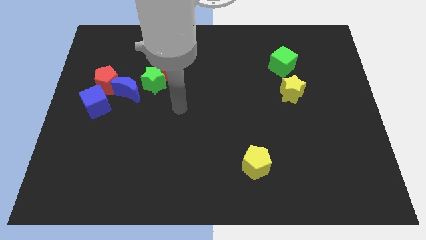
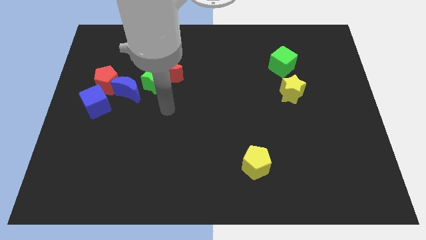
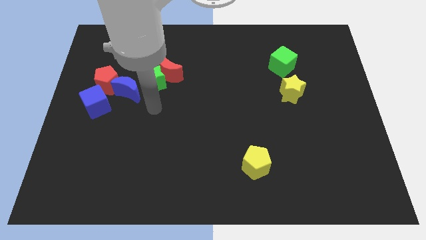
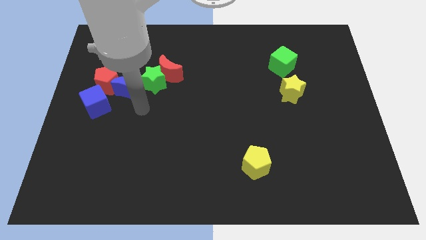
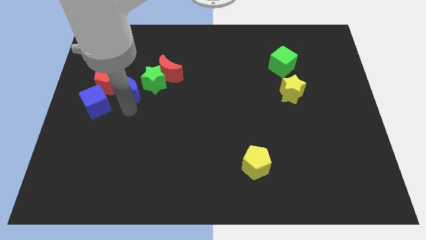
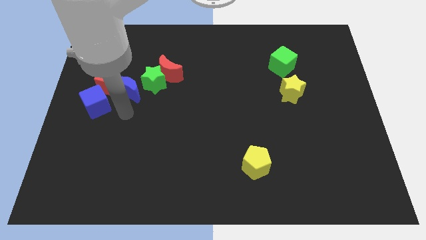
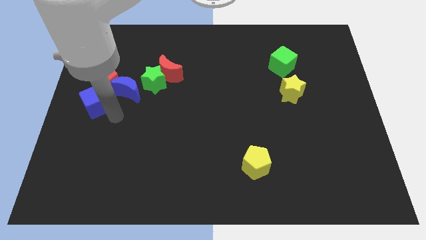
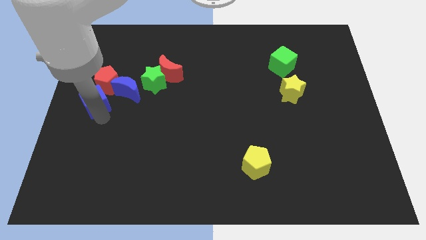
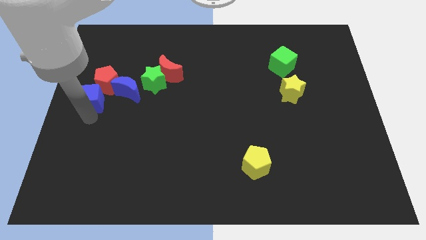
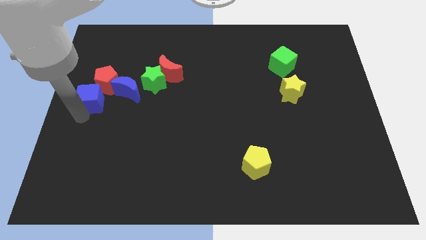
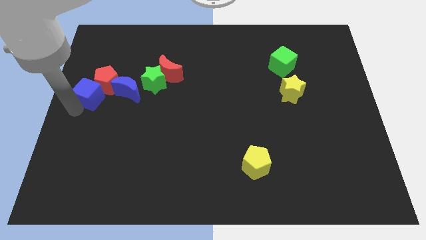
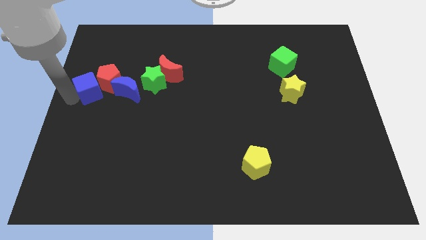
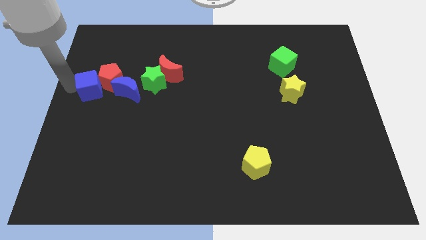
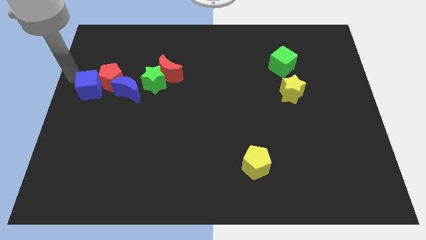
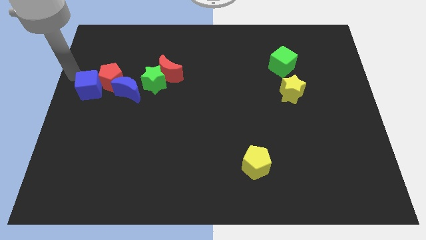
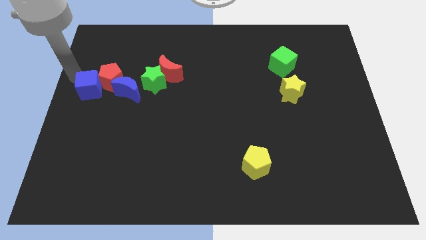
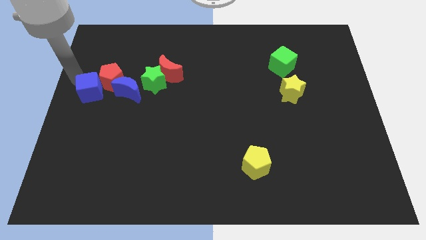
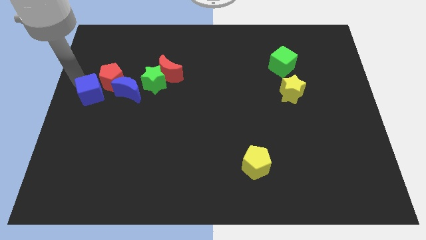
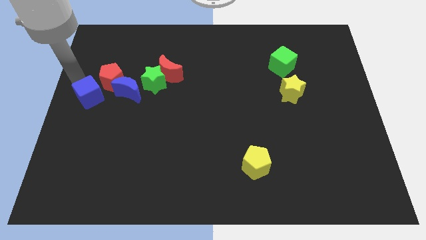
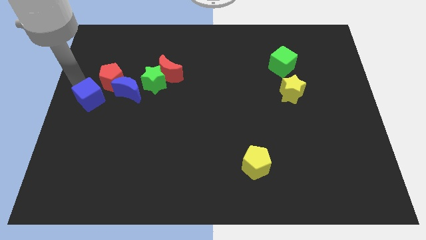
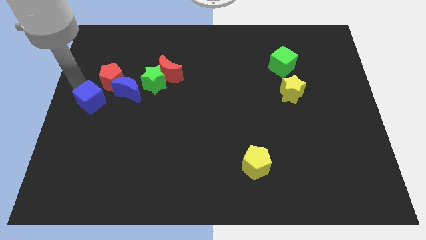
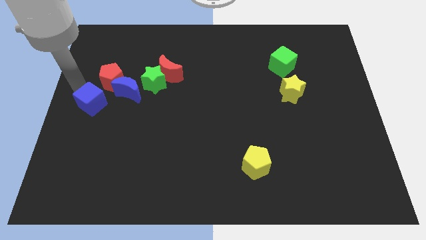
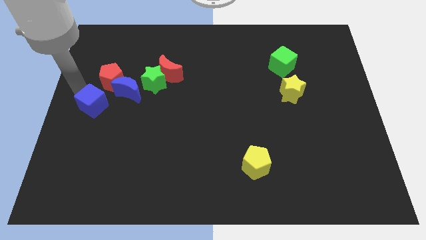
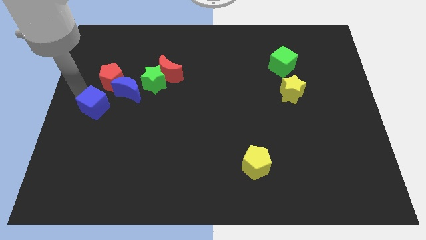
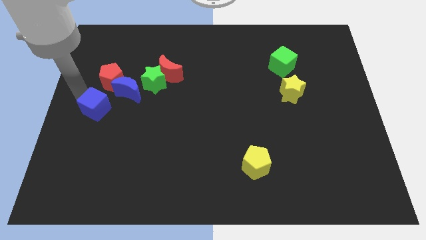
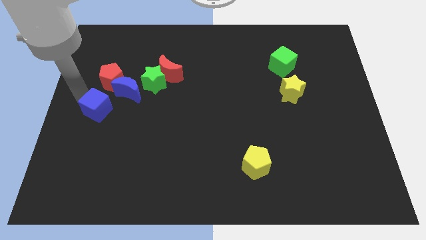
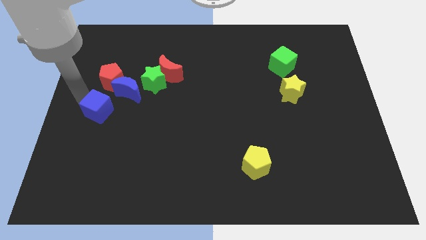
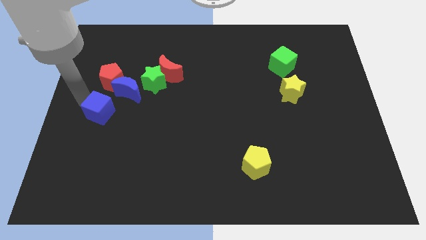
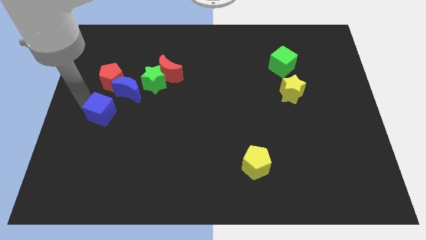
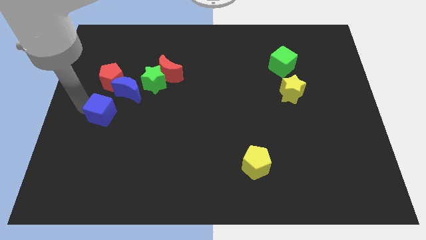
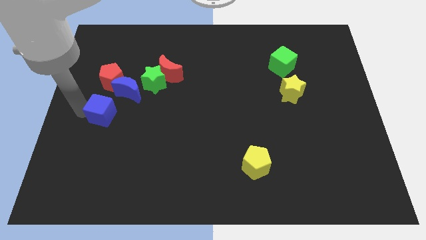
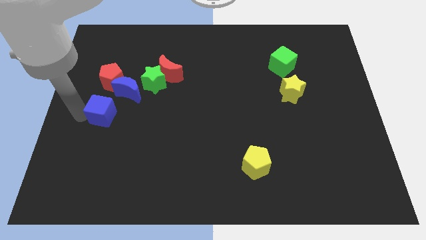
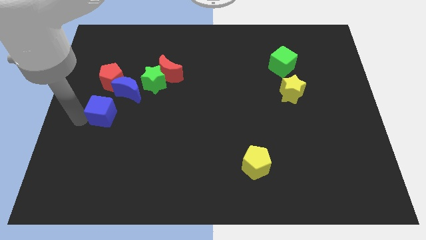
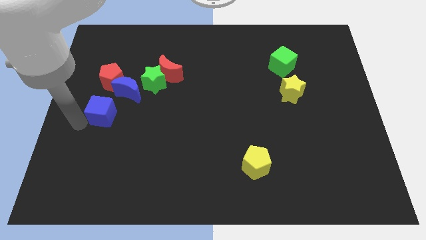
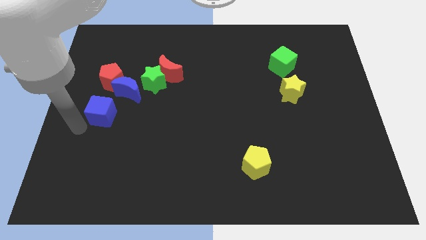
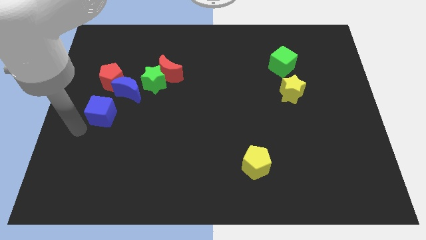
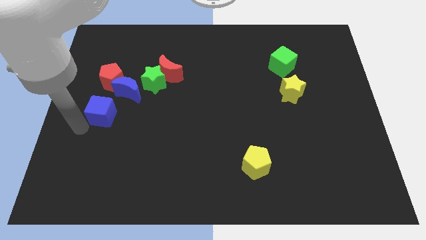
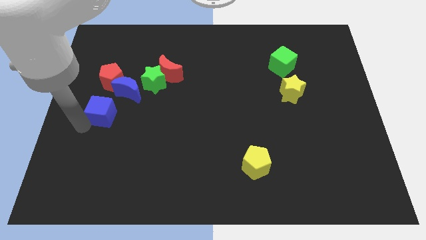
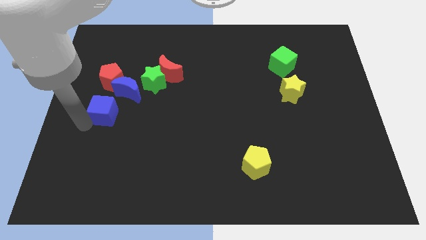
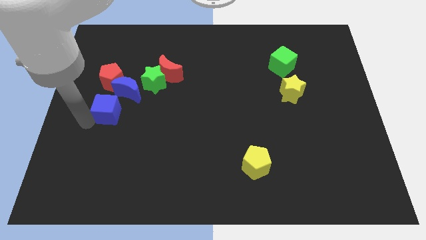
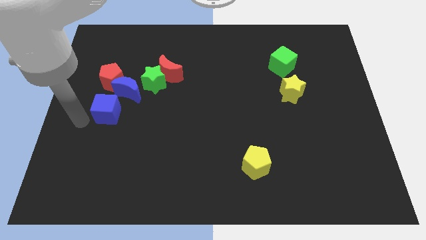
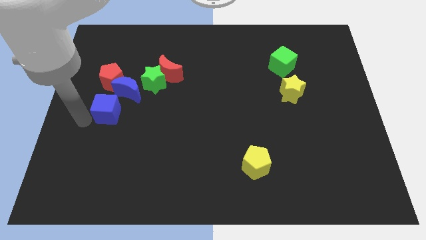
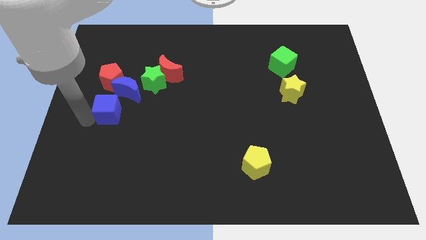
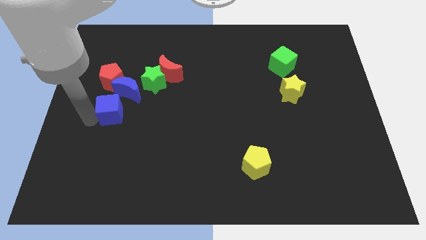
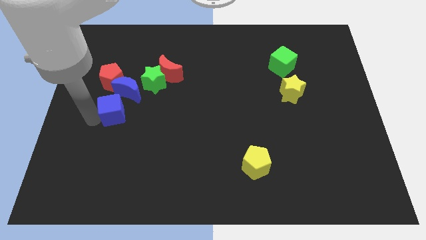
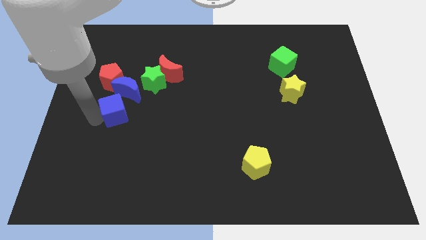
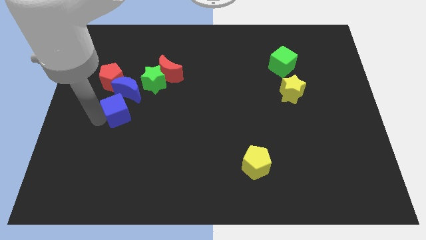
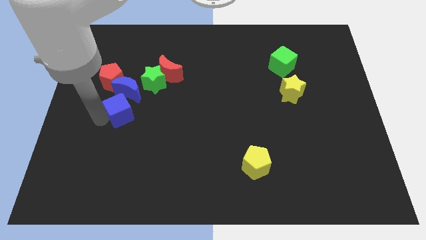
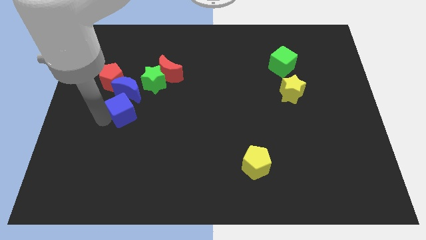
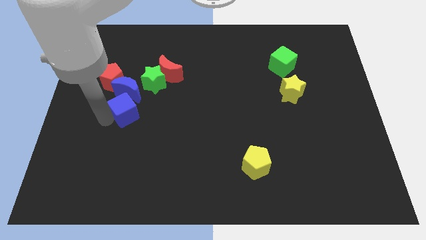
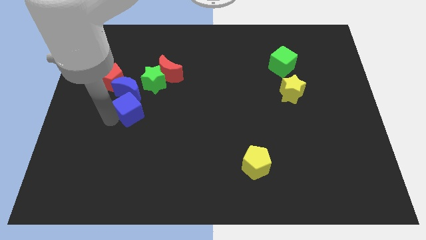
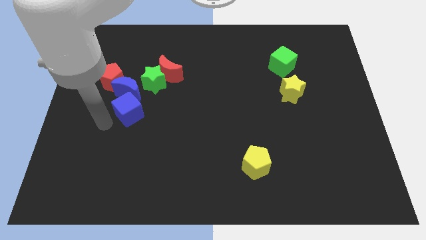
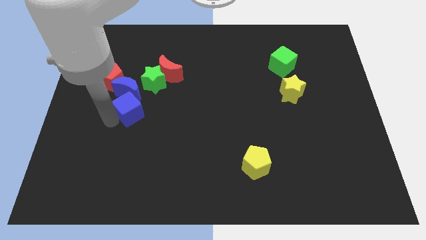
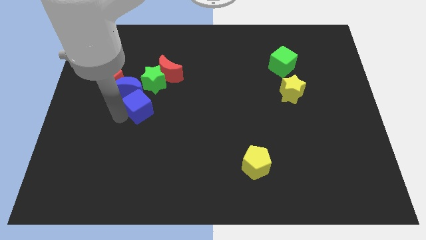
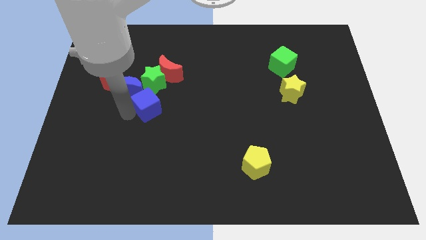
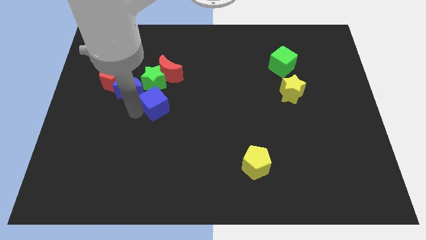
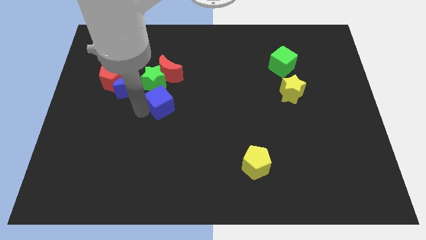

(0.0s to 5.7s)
push the blue cube to the middle

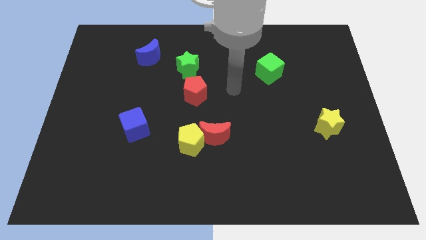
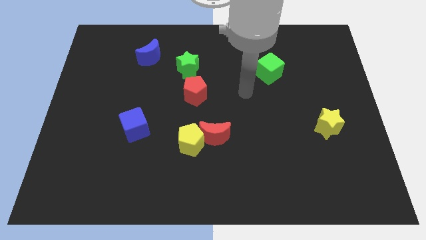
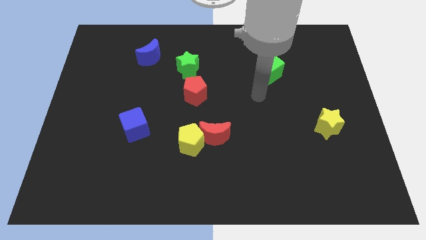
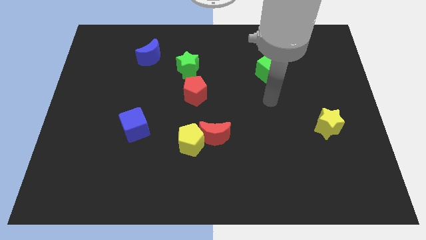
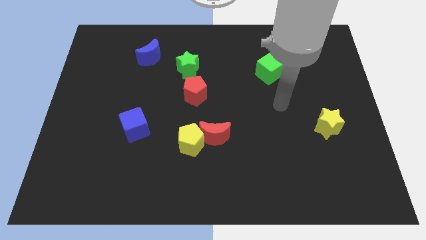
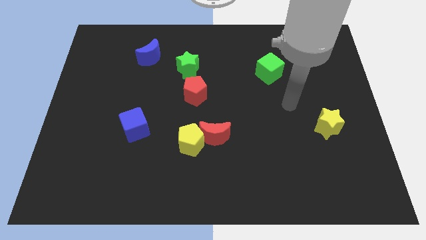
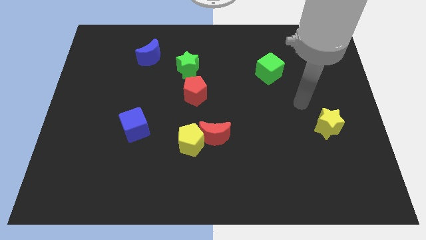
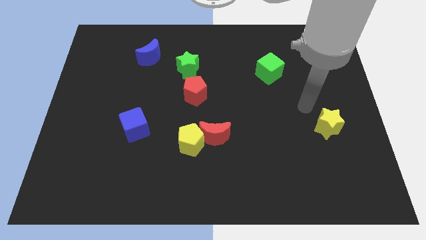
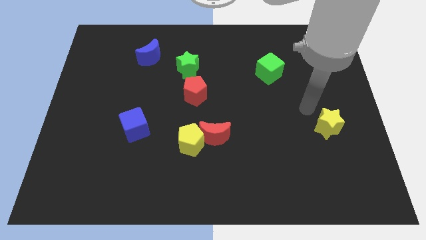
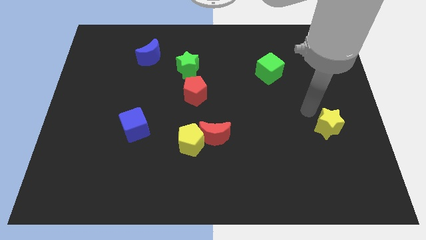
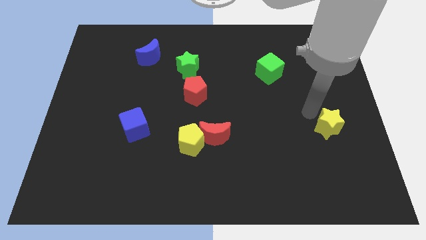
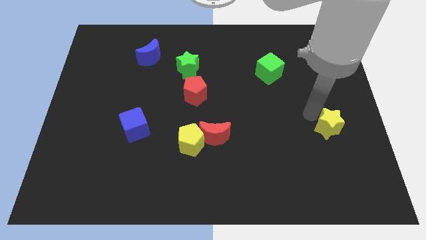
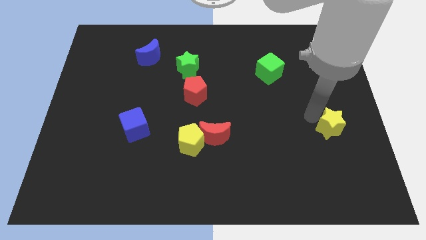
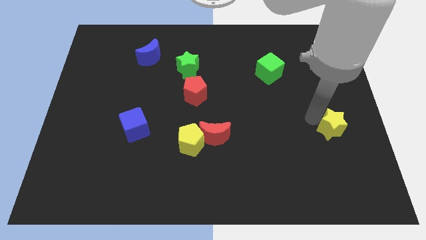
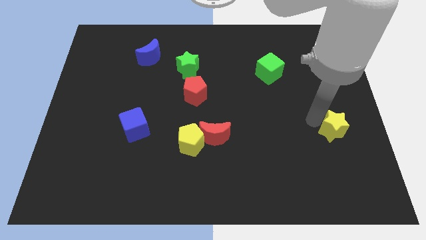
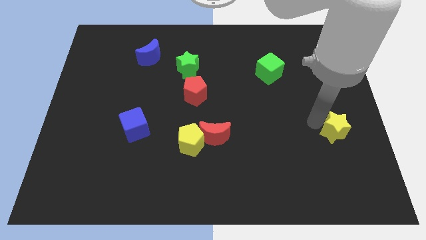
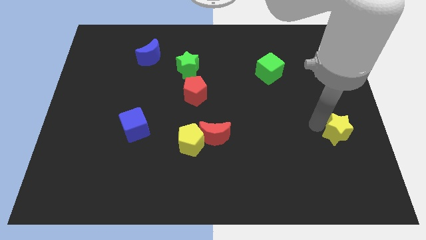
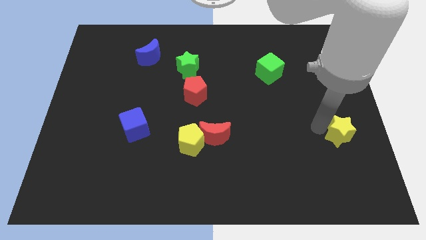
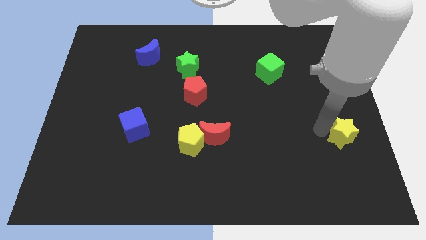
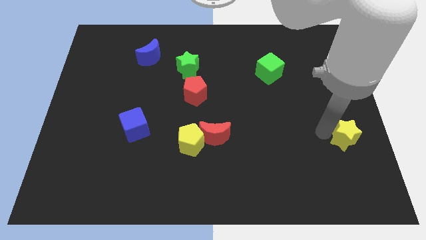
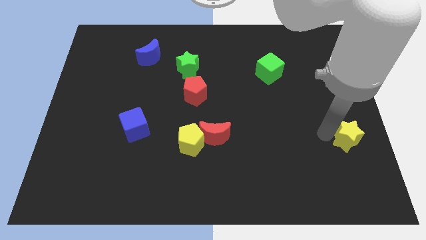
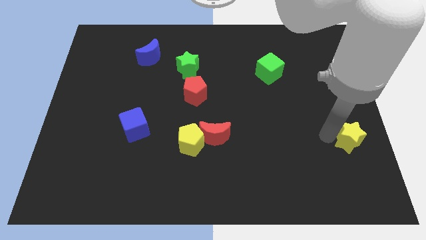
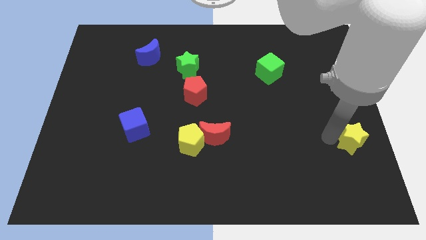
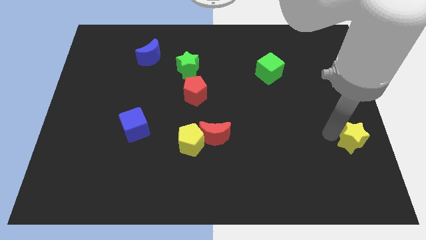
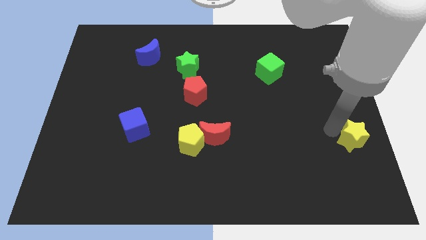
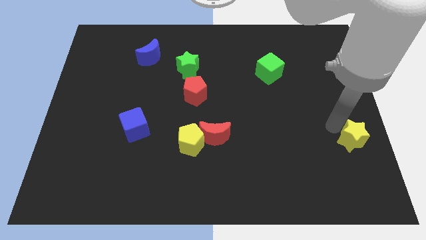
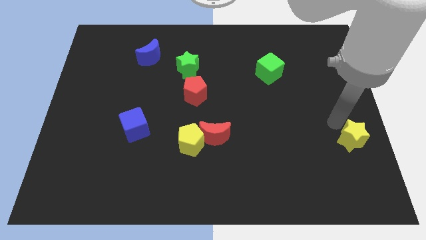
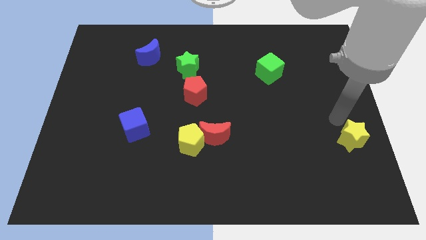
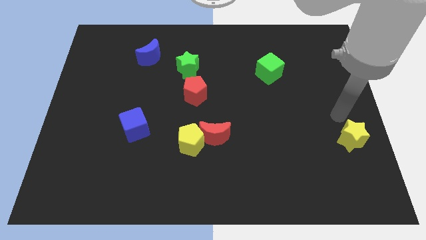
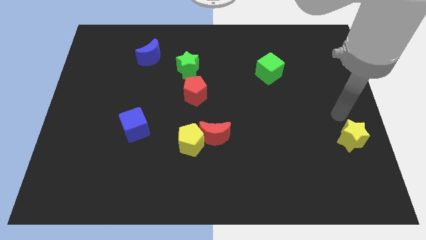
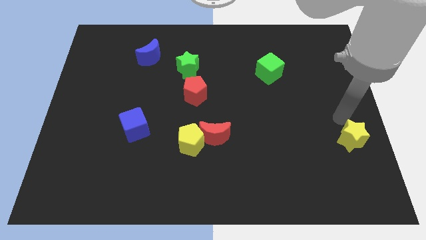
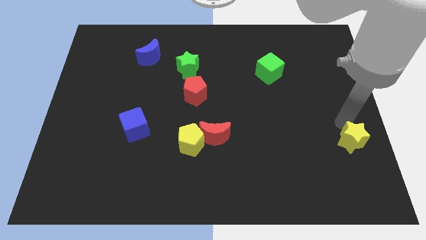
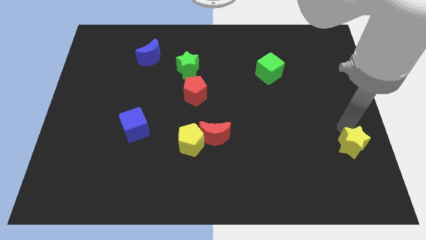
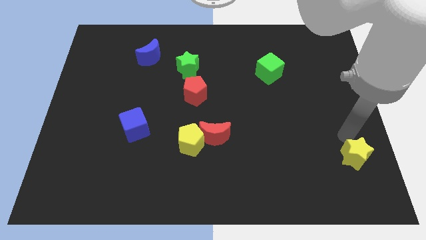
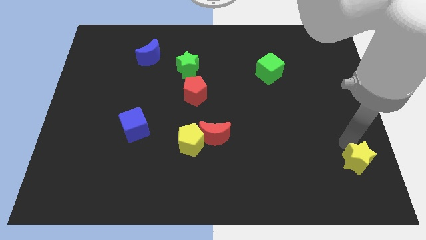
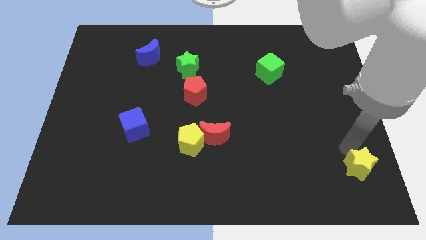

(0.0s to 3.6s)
push the yellow star to the bottom right corner
